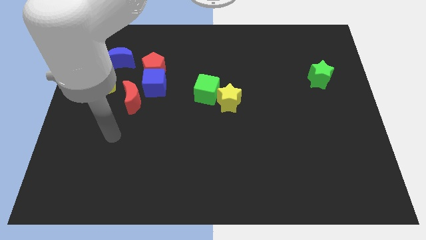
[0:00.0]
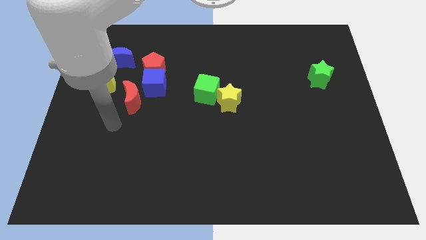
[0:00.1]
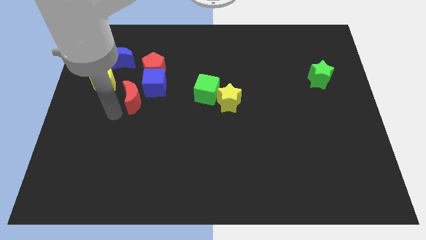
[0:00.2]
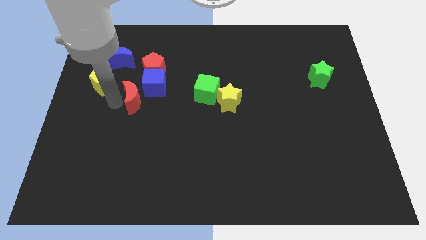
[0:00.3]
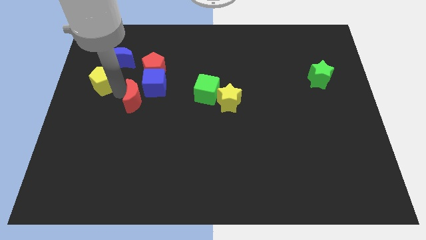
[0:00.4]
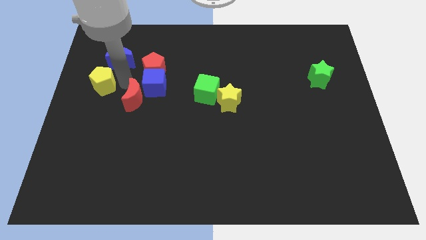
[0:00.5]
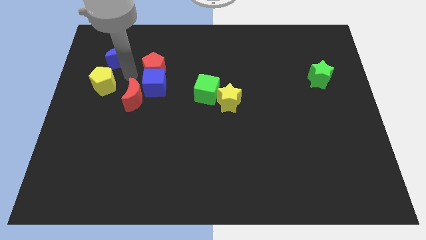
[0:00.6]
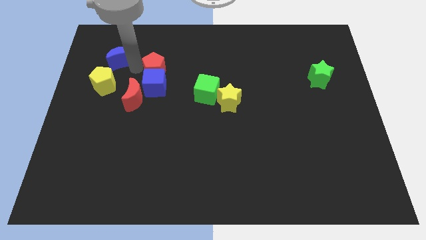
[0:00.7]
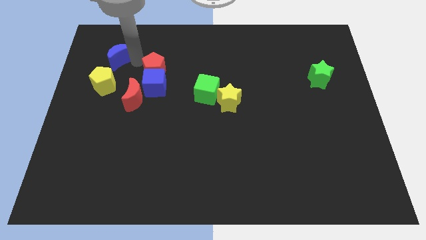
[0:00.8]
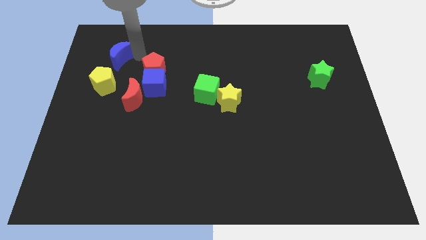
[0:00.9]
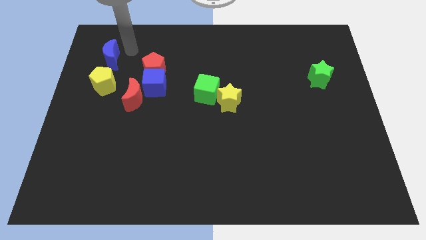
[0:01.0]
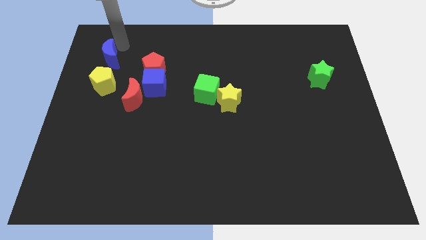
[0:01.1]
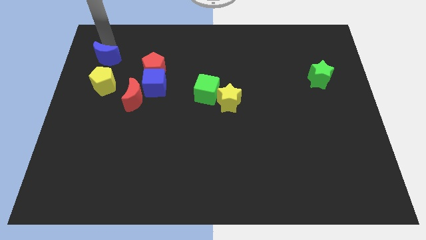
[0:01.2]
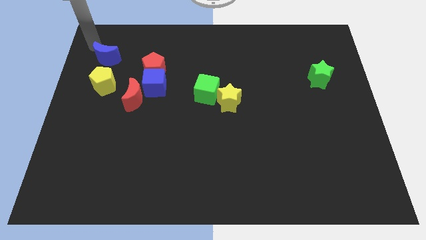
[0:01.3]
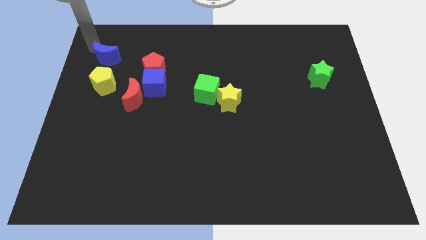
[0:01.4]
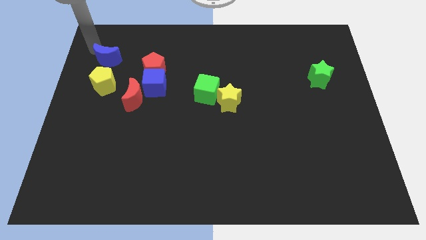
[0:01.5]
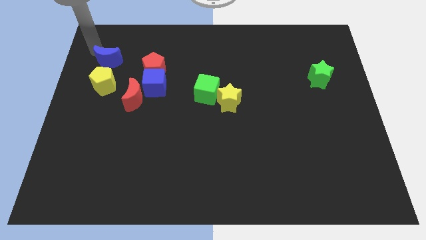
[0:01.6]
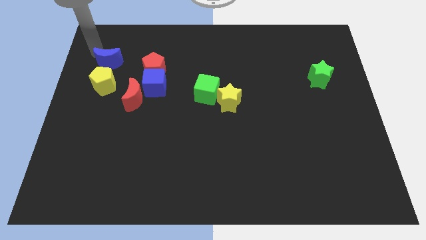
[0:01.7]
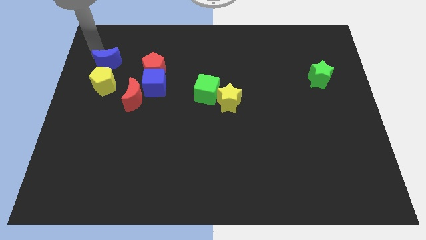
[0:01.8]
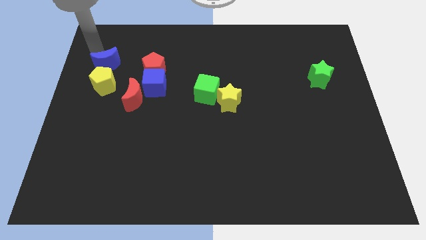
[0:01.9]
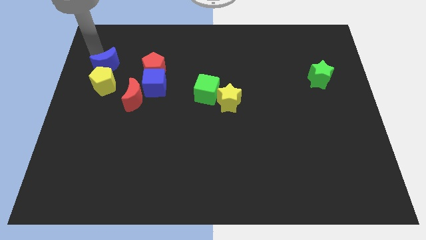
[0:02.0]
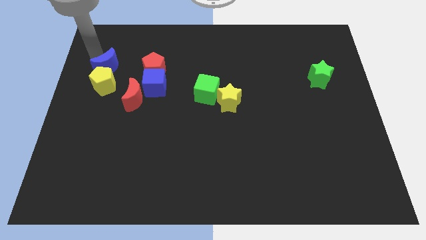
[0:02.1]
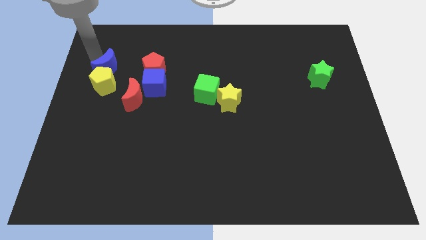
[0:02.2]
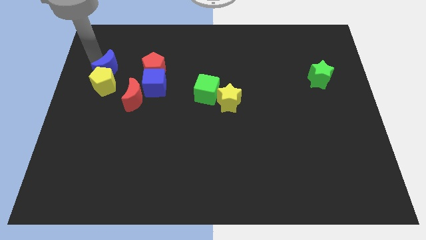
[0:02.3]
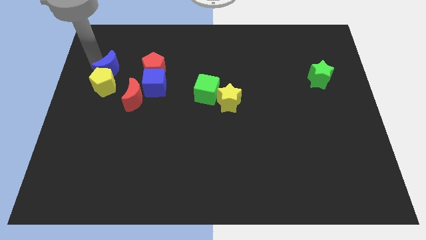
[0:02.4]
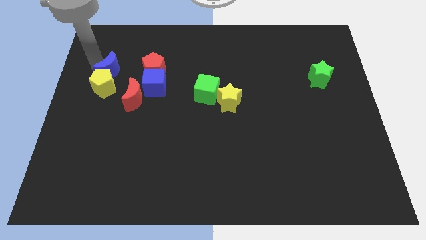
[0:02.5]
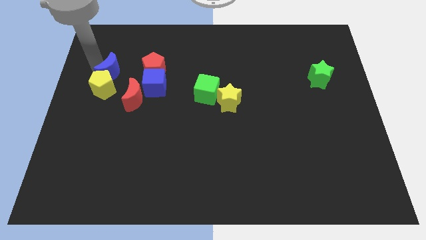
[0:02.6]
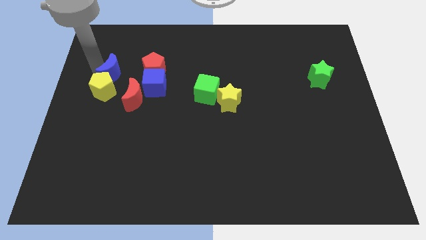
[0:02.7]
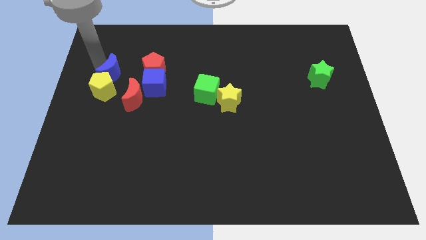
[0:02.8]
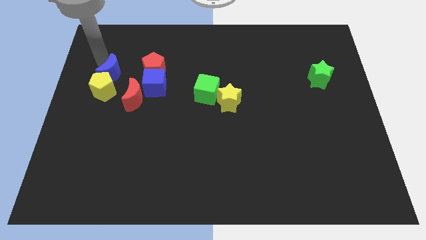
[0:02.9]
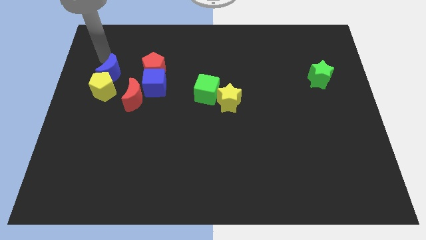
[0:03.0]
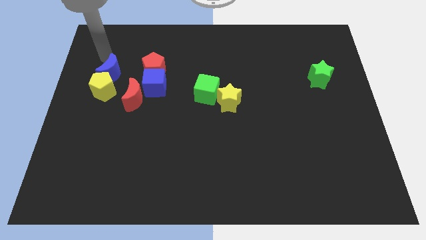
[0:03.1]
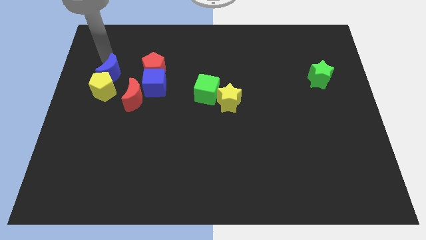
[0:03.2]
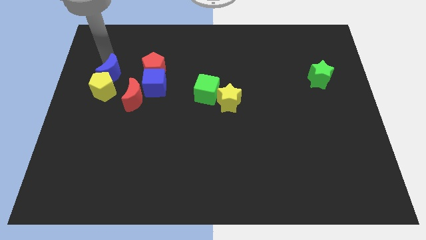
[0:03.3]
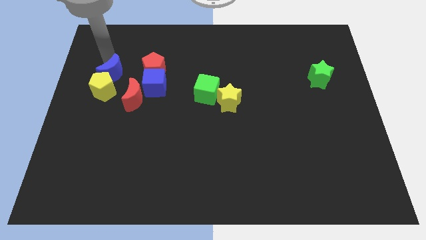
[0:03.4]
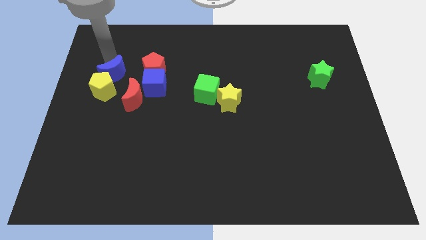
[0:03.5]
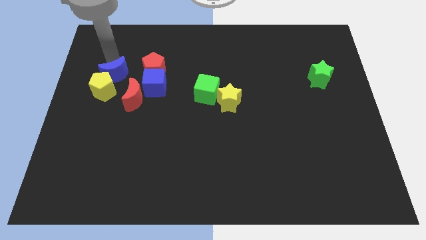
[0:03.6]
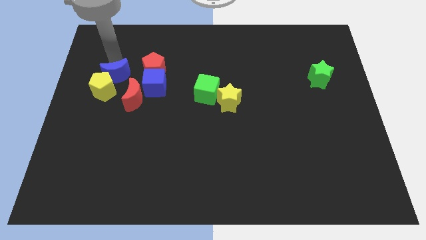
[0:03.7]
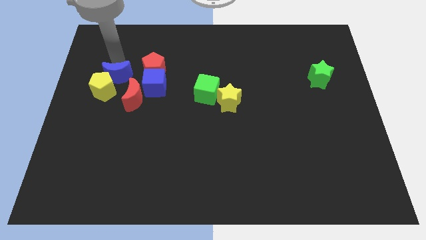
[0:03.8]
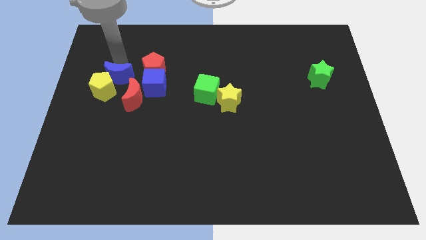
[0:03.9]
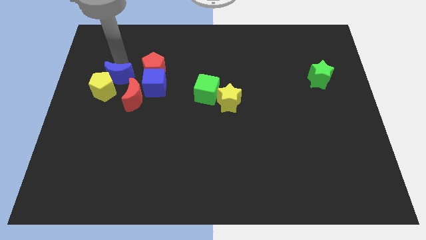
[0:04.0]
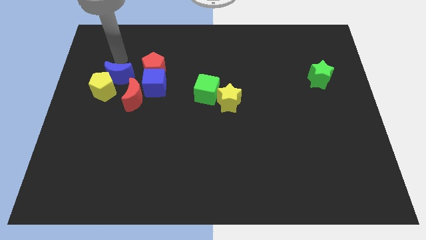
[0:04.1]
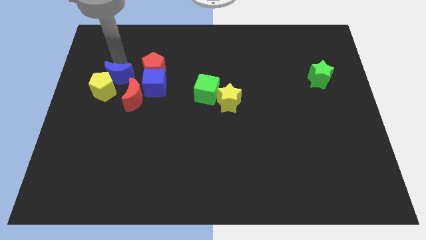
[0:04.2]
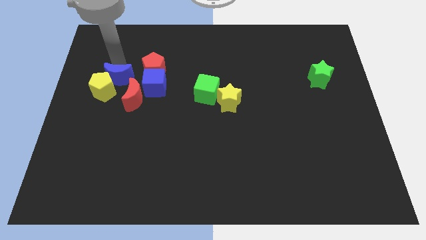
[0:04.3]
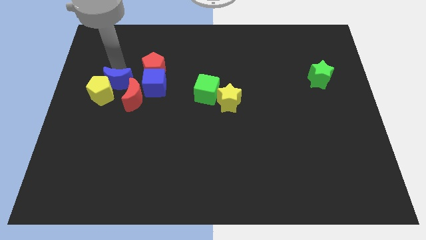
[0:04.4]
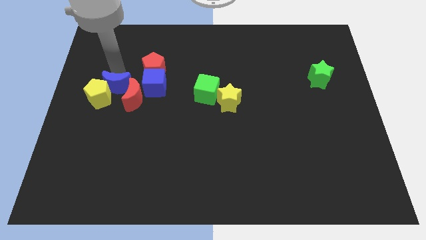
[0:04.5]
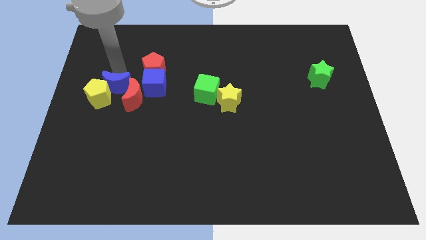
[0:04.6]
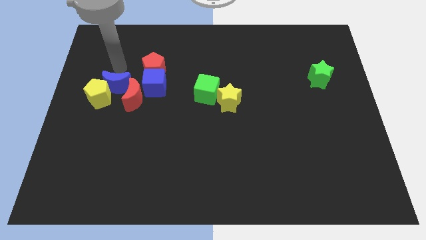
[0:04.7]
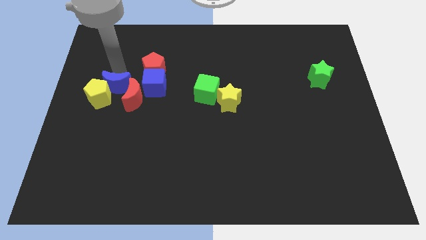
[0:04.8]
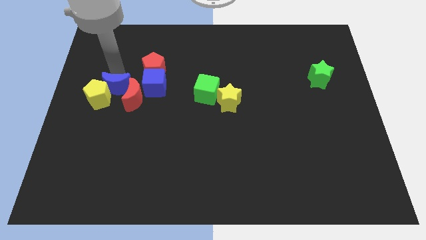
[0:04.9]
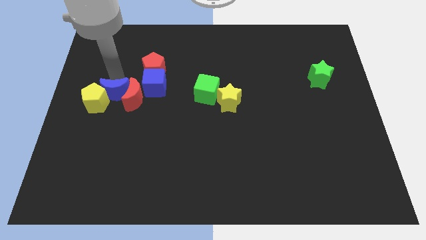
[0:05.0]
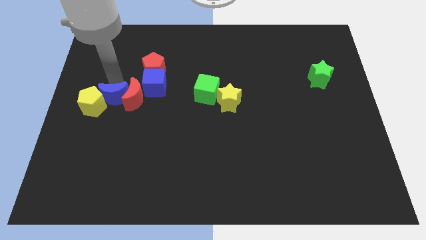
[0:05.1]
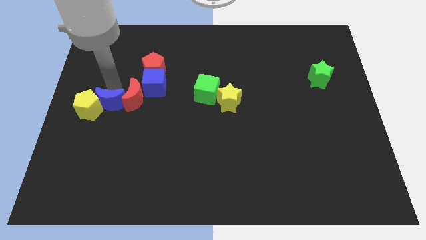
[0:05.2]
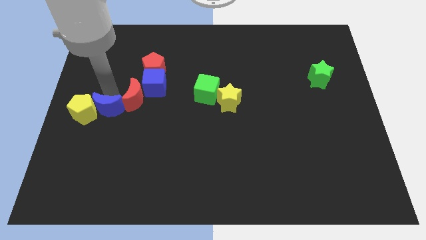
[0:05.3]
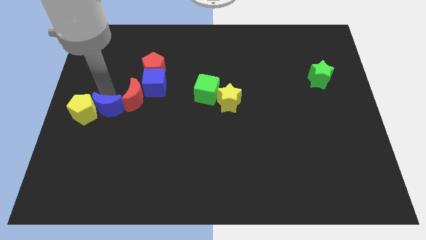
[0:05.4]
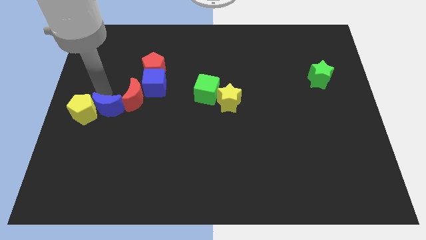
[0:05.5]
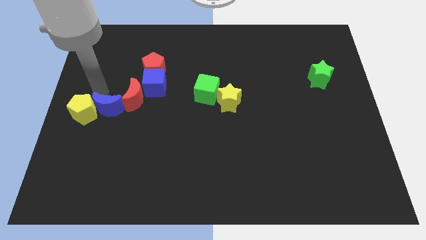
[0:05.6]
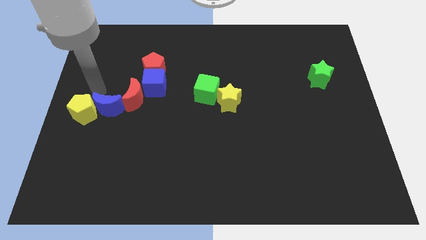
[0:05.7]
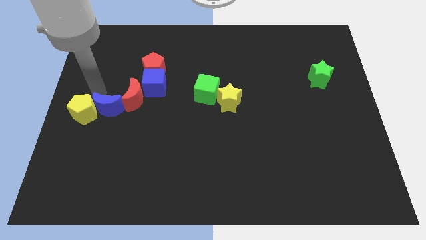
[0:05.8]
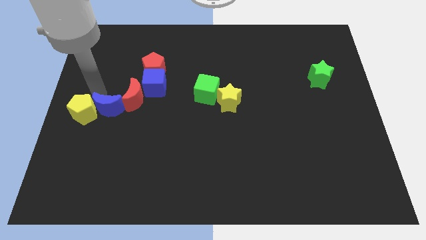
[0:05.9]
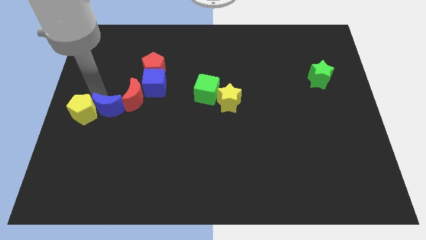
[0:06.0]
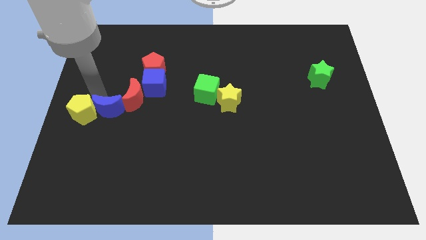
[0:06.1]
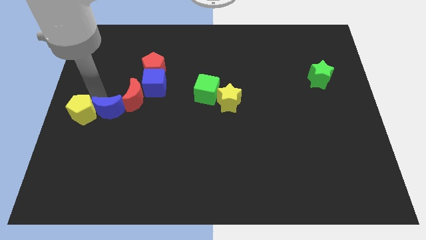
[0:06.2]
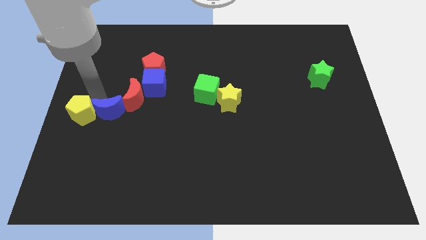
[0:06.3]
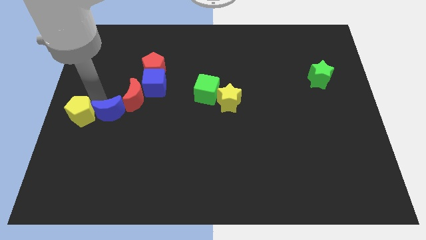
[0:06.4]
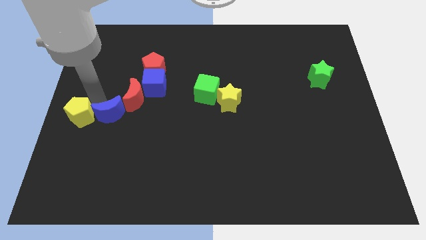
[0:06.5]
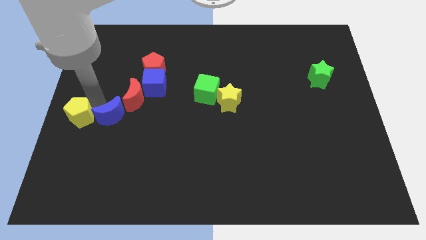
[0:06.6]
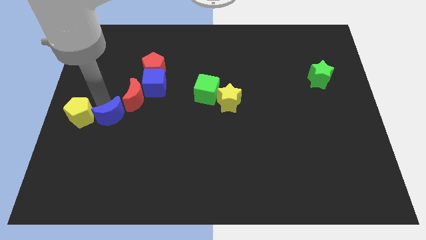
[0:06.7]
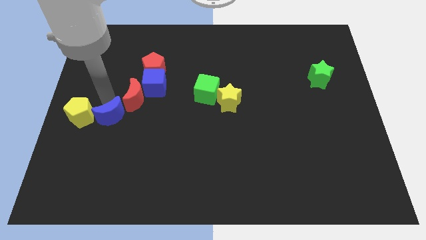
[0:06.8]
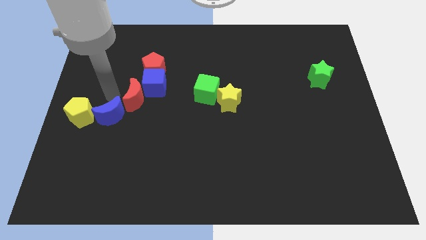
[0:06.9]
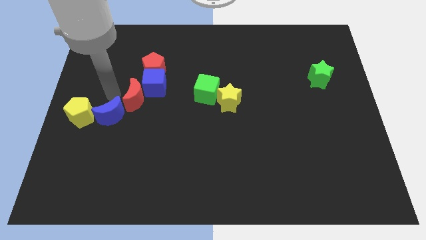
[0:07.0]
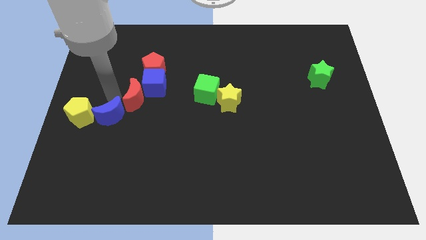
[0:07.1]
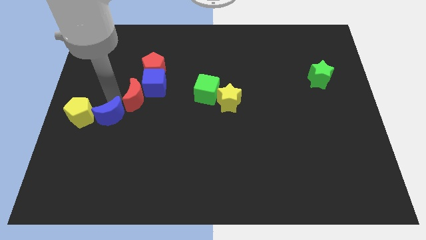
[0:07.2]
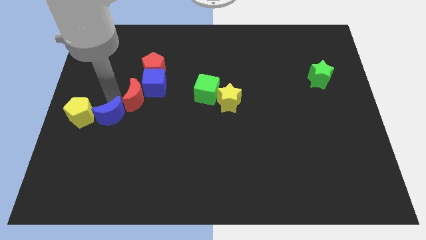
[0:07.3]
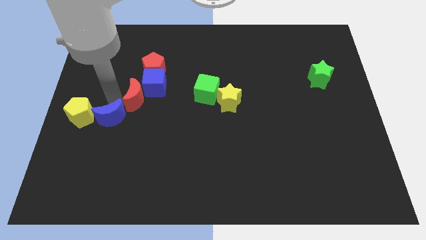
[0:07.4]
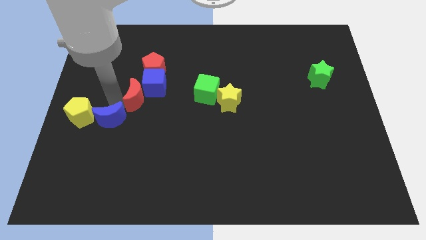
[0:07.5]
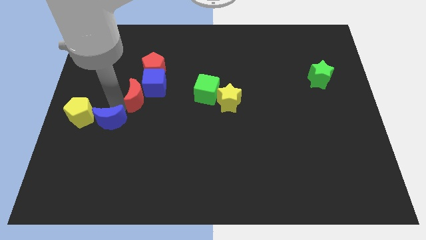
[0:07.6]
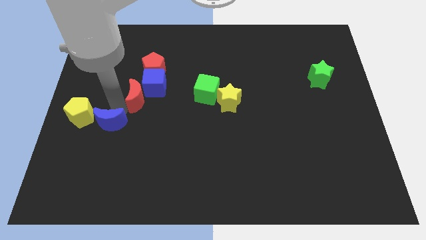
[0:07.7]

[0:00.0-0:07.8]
slide the blue moon down

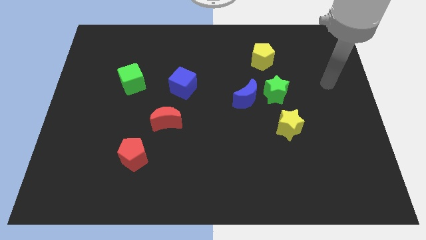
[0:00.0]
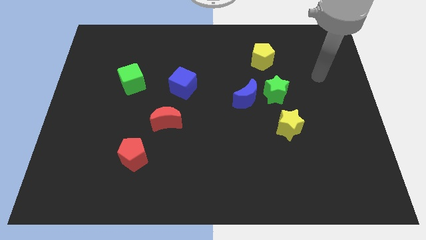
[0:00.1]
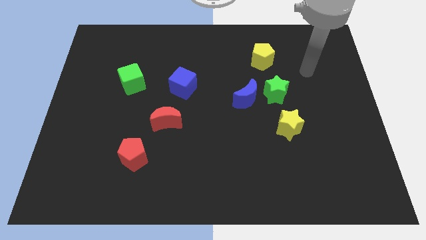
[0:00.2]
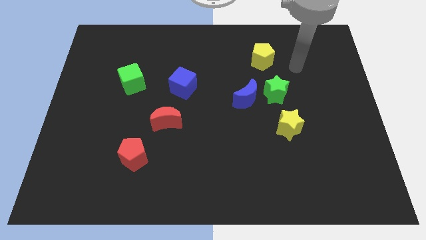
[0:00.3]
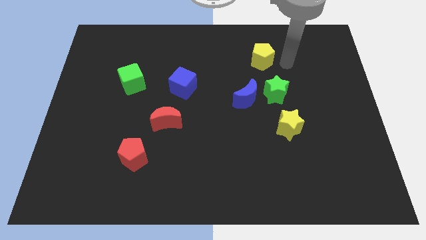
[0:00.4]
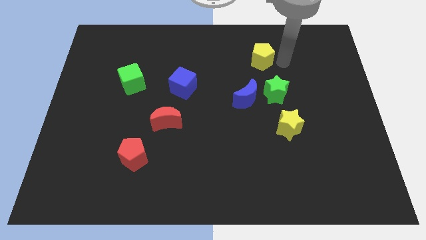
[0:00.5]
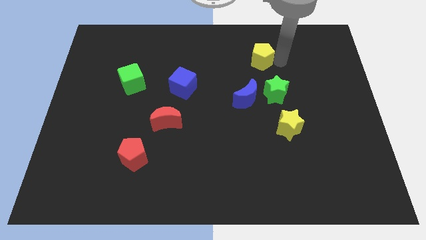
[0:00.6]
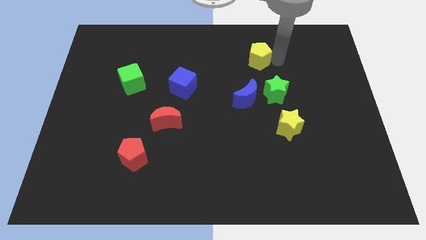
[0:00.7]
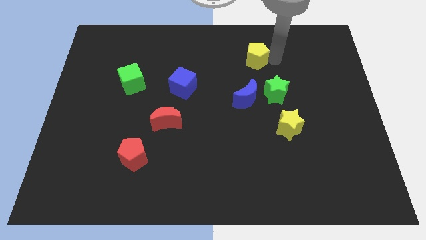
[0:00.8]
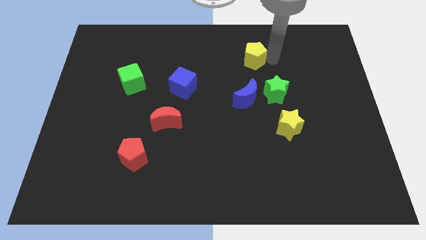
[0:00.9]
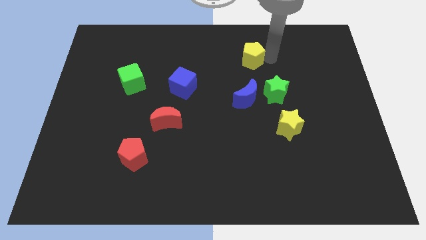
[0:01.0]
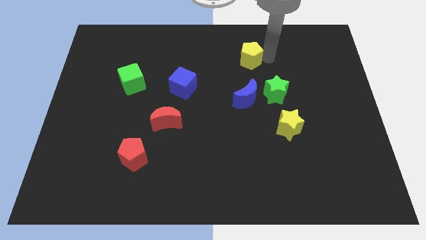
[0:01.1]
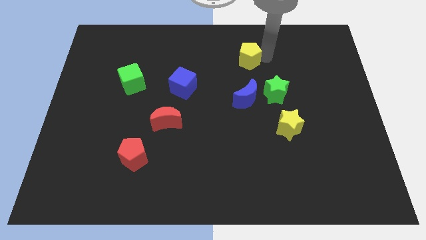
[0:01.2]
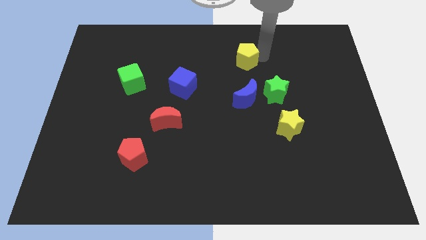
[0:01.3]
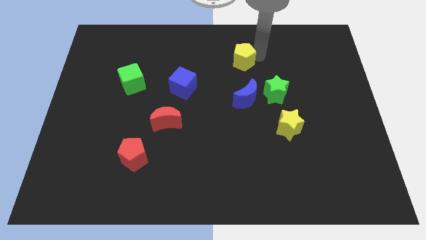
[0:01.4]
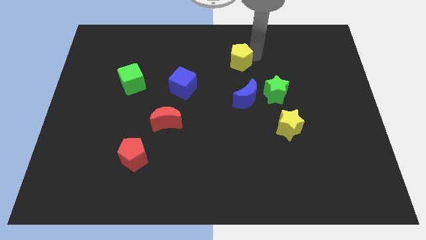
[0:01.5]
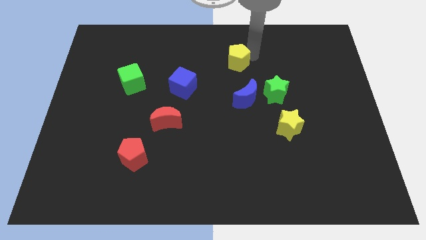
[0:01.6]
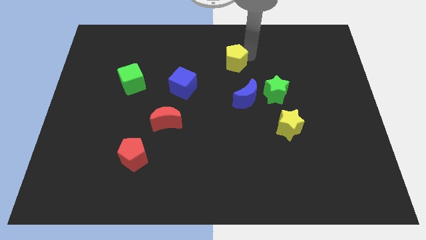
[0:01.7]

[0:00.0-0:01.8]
slide the yellow pentagon left a bit
